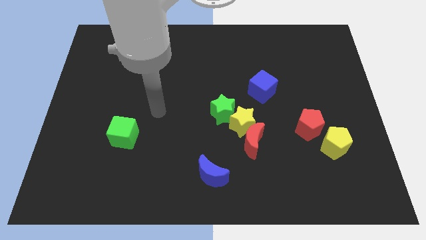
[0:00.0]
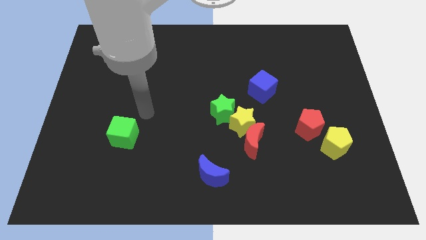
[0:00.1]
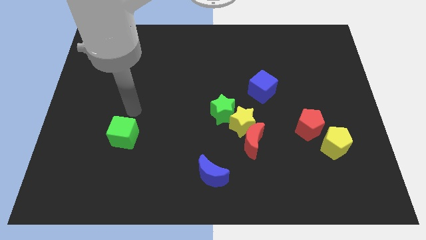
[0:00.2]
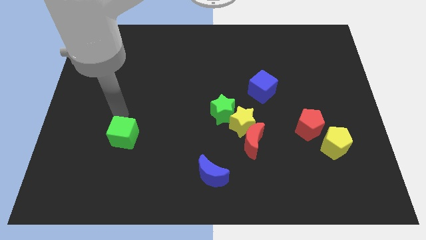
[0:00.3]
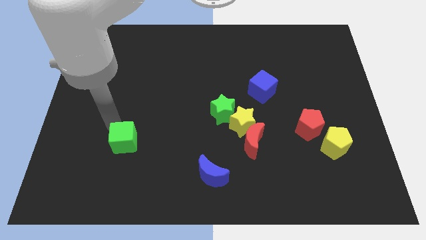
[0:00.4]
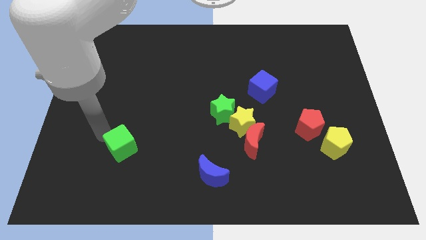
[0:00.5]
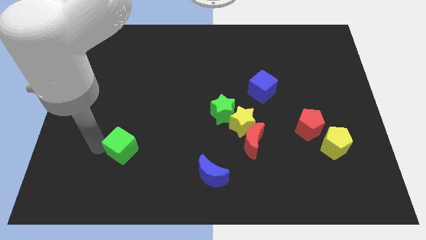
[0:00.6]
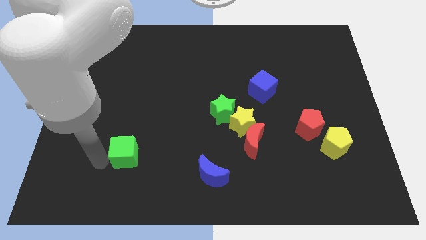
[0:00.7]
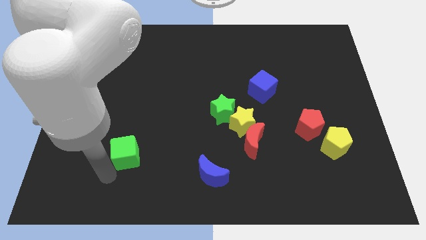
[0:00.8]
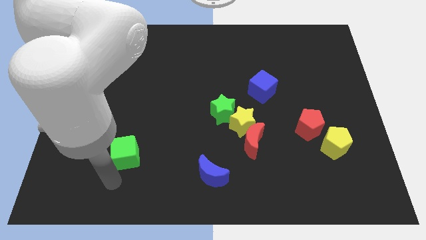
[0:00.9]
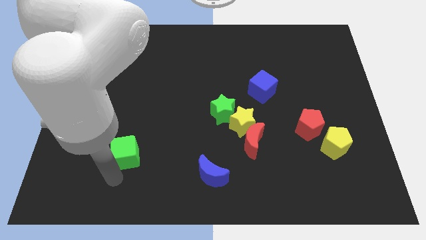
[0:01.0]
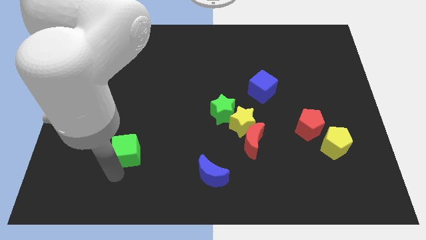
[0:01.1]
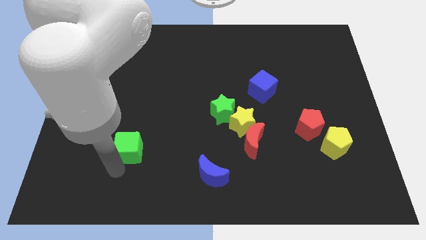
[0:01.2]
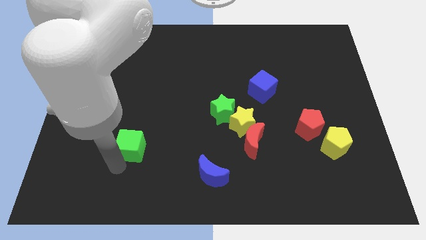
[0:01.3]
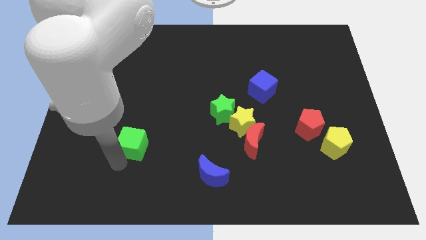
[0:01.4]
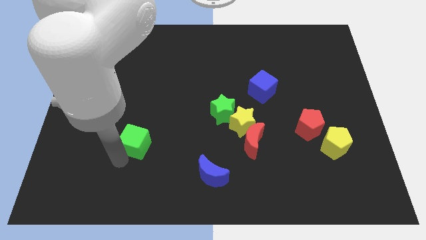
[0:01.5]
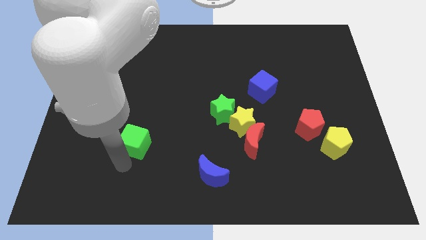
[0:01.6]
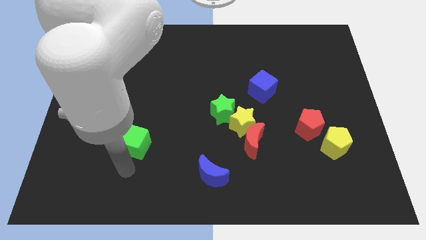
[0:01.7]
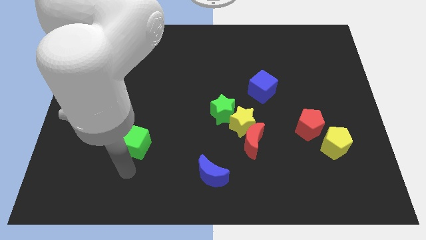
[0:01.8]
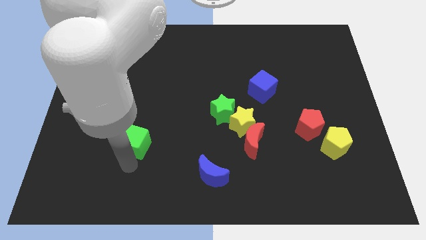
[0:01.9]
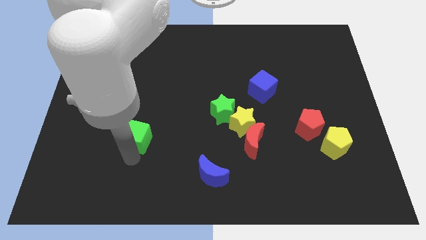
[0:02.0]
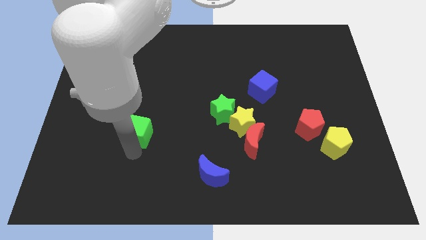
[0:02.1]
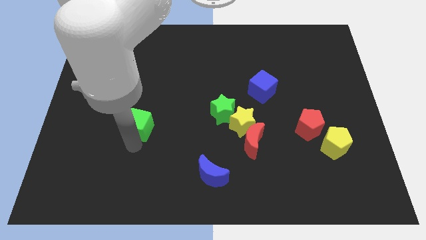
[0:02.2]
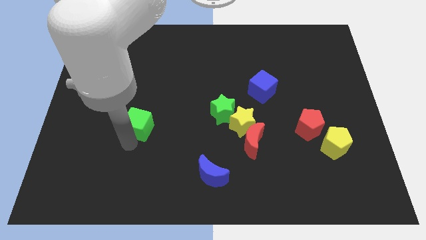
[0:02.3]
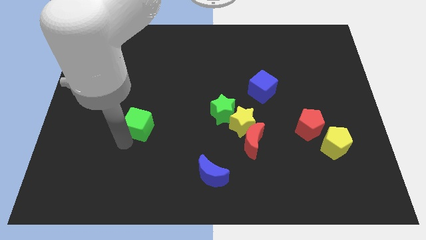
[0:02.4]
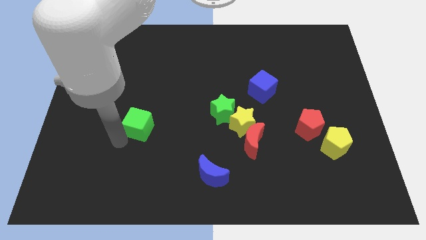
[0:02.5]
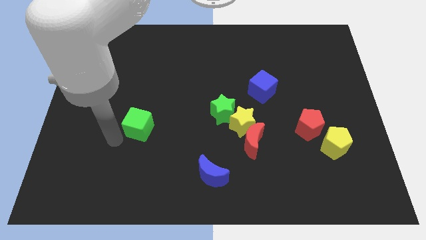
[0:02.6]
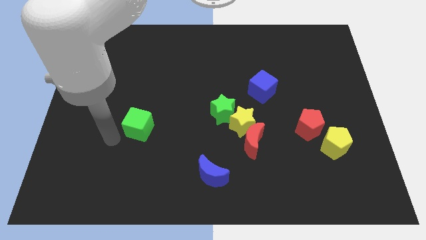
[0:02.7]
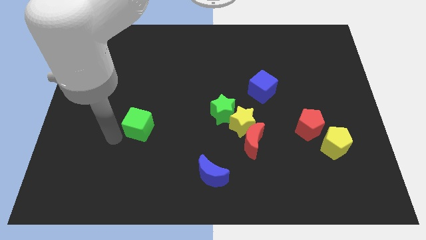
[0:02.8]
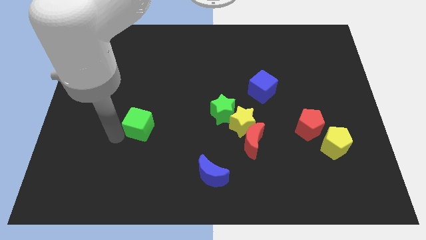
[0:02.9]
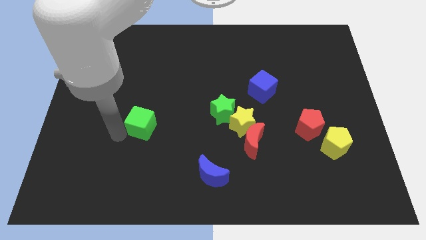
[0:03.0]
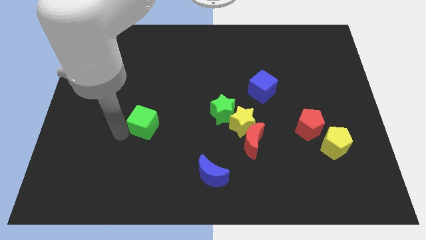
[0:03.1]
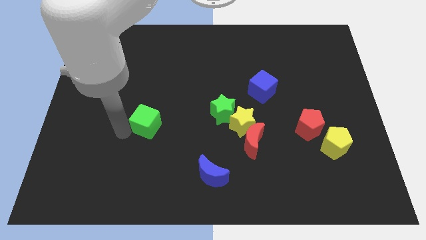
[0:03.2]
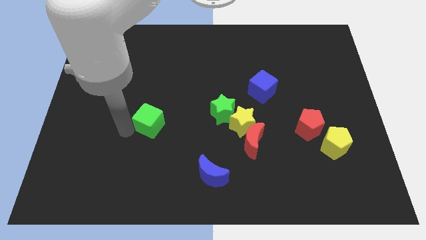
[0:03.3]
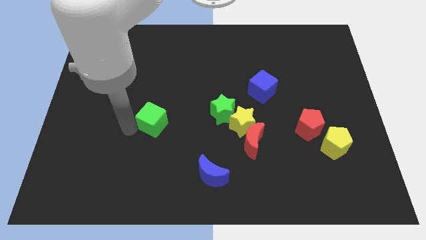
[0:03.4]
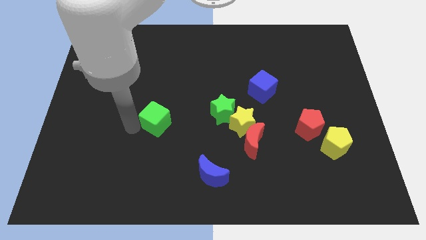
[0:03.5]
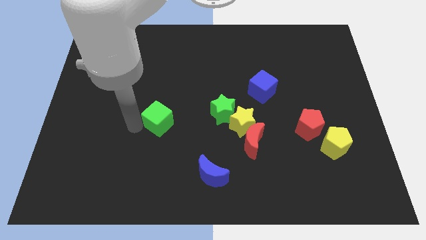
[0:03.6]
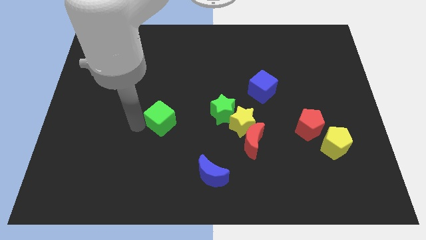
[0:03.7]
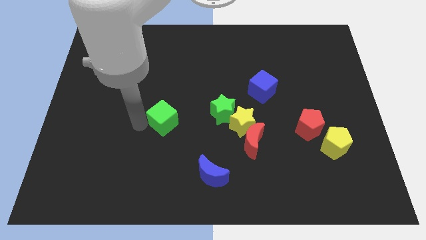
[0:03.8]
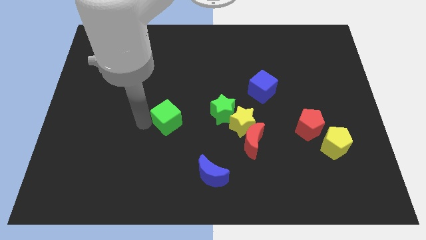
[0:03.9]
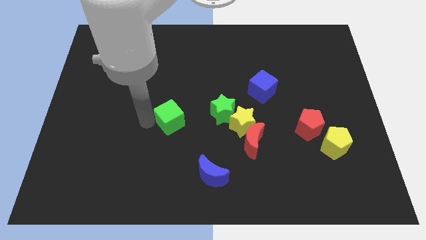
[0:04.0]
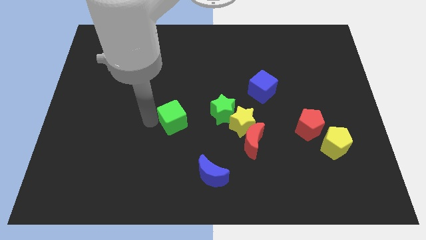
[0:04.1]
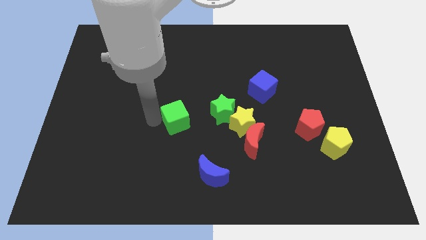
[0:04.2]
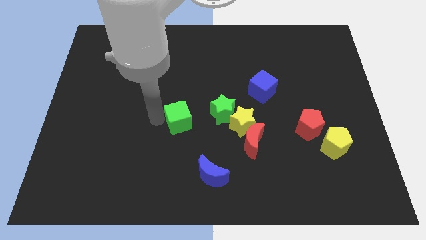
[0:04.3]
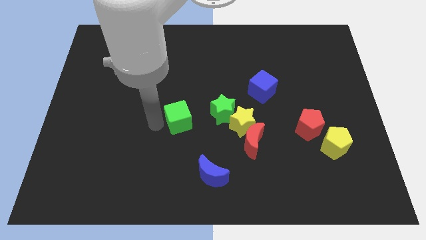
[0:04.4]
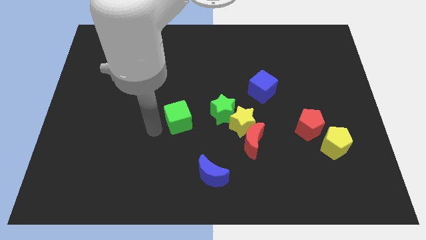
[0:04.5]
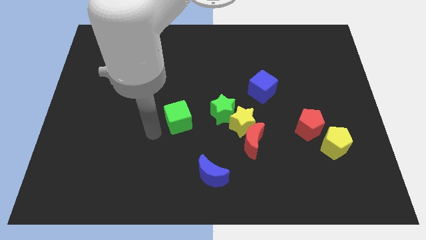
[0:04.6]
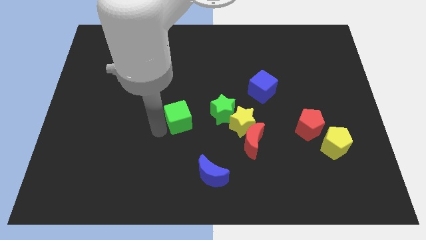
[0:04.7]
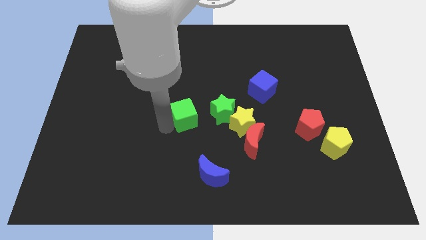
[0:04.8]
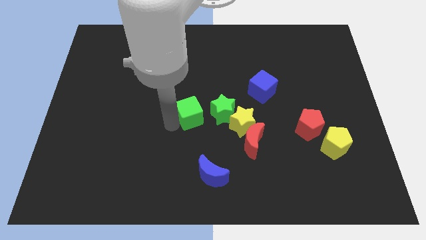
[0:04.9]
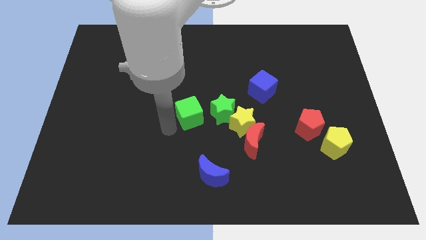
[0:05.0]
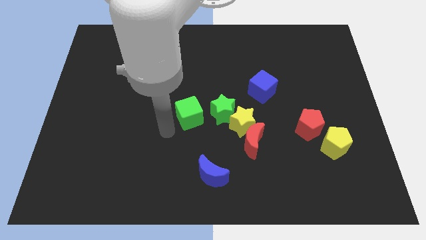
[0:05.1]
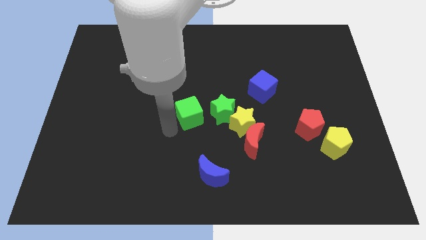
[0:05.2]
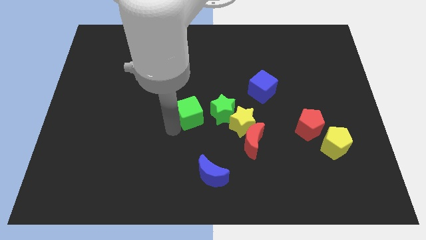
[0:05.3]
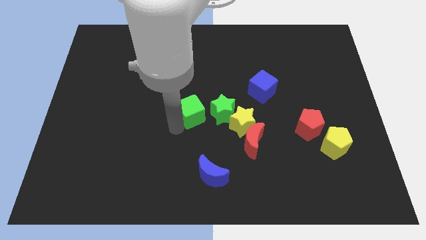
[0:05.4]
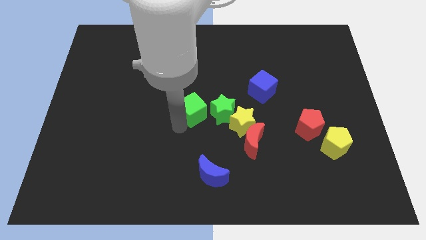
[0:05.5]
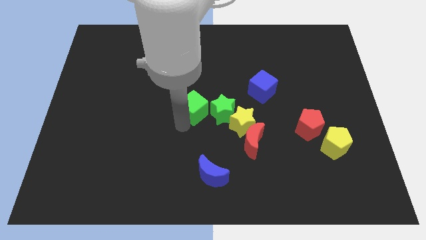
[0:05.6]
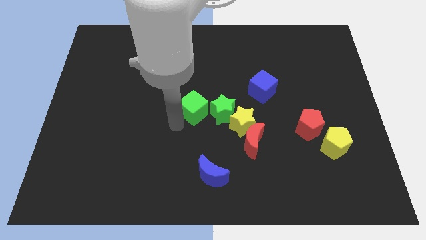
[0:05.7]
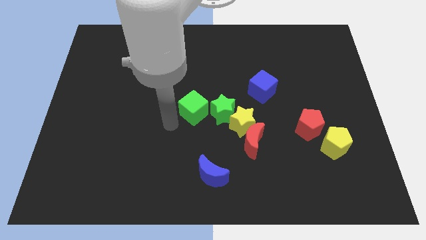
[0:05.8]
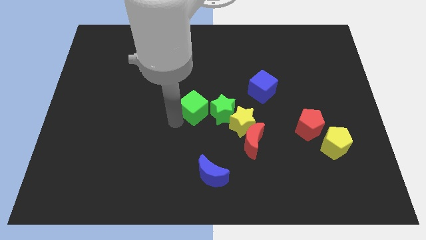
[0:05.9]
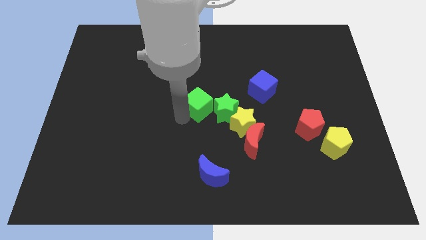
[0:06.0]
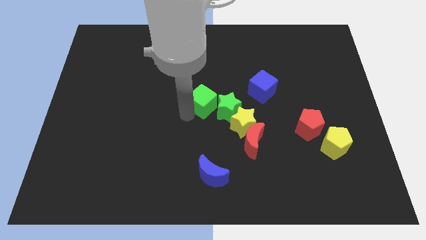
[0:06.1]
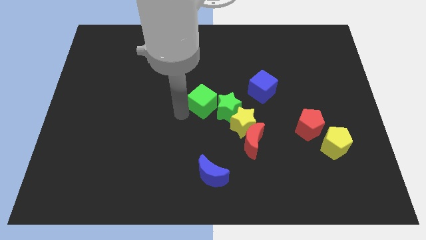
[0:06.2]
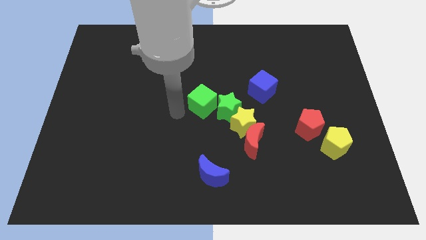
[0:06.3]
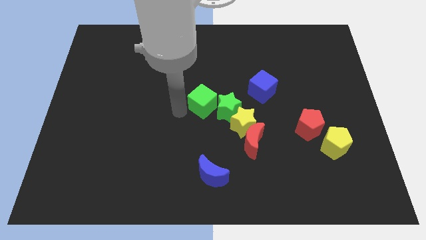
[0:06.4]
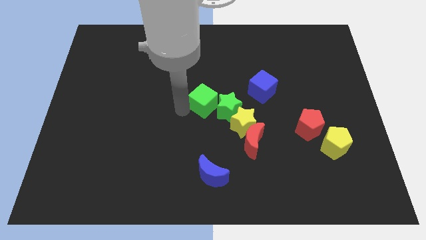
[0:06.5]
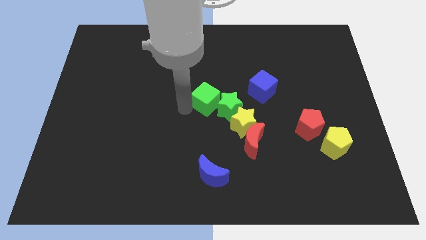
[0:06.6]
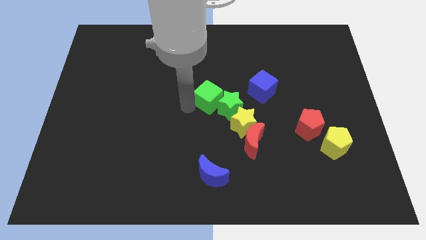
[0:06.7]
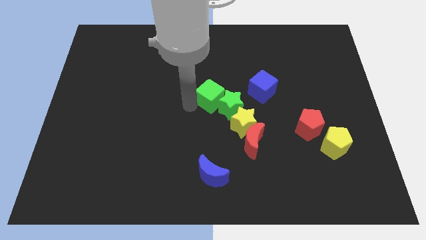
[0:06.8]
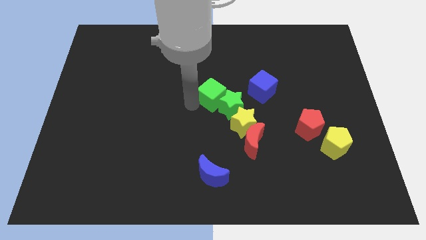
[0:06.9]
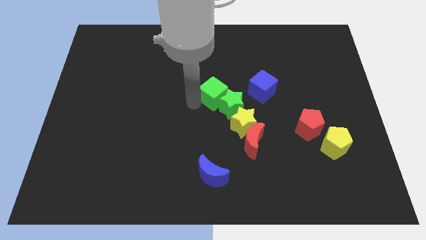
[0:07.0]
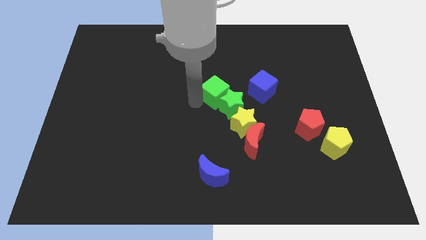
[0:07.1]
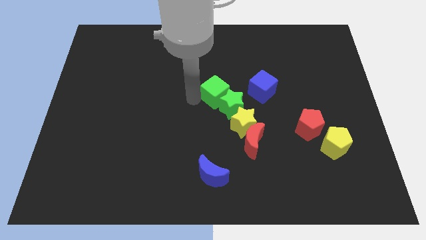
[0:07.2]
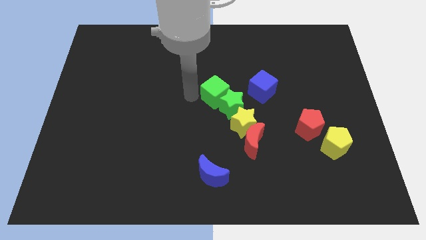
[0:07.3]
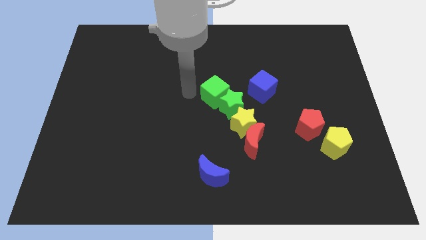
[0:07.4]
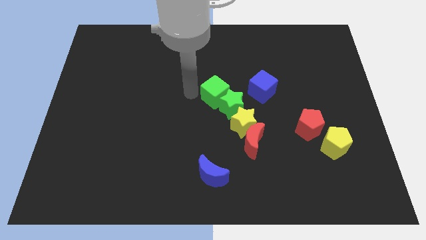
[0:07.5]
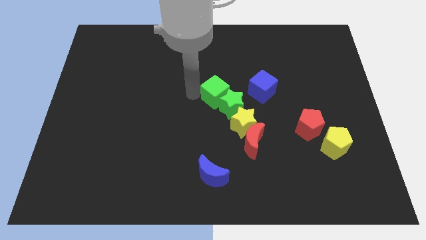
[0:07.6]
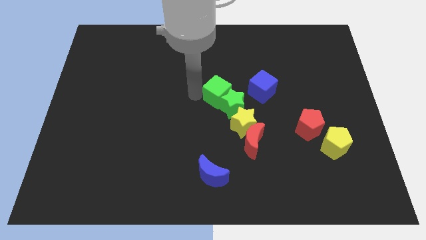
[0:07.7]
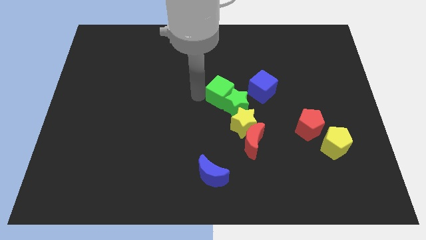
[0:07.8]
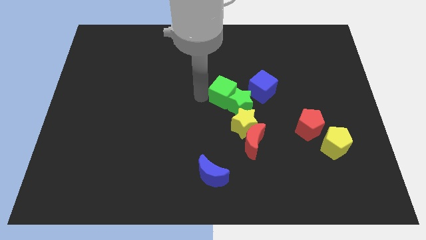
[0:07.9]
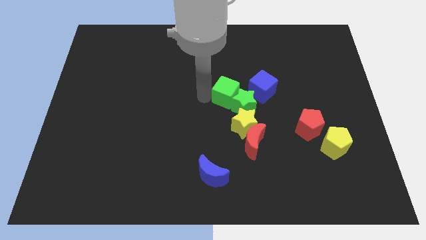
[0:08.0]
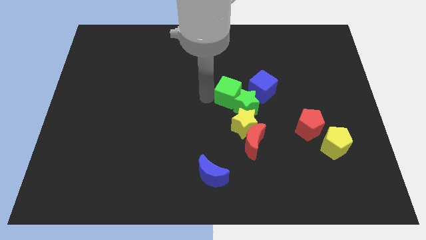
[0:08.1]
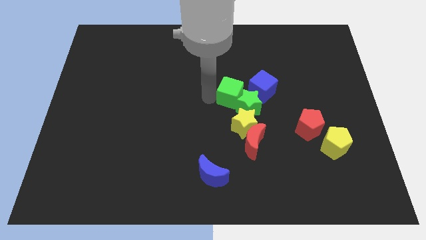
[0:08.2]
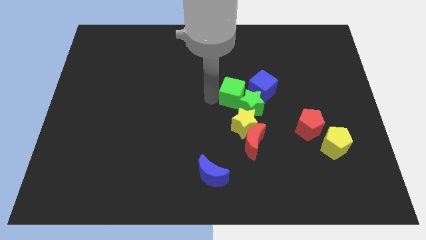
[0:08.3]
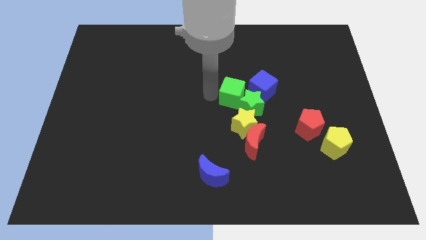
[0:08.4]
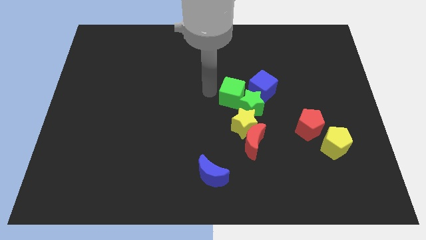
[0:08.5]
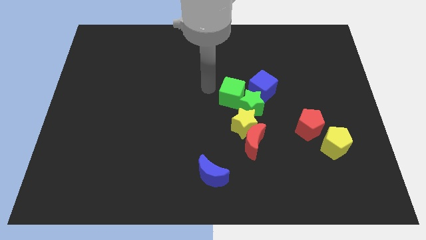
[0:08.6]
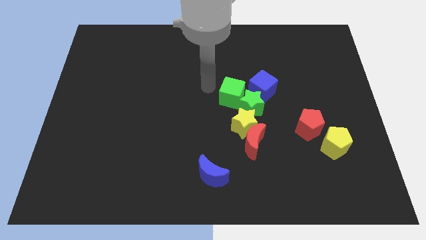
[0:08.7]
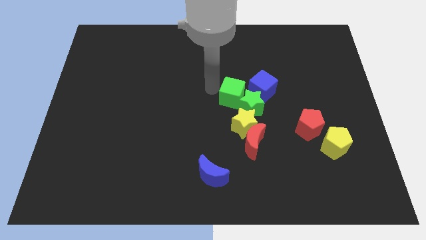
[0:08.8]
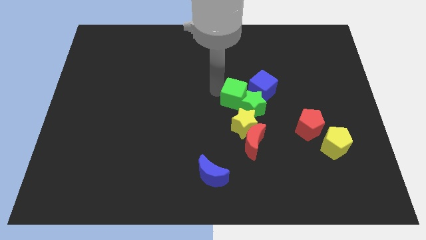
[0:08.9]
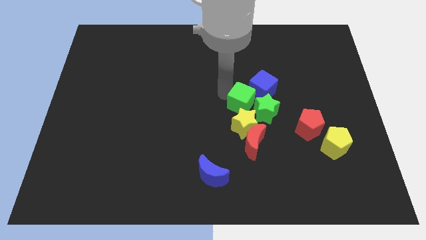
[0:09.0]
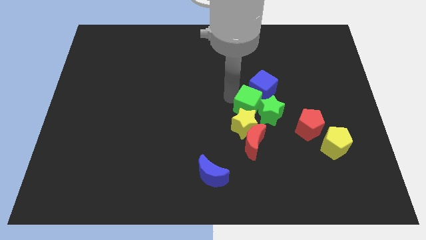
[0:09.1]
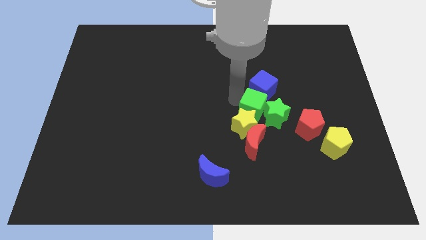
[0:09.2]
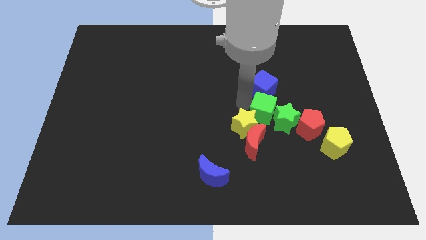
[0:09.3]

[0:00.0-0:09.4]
slide the green cube just right of the yellow star
